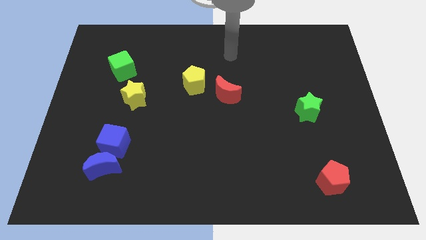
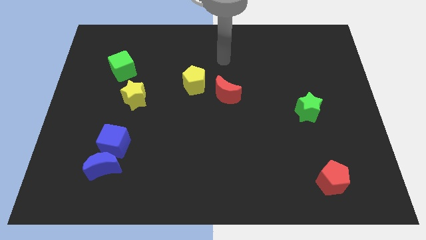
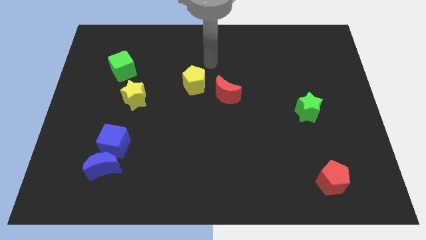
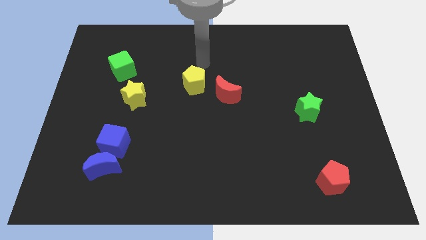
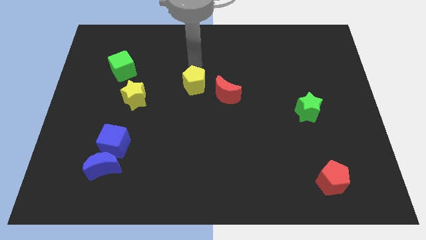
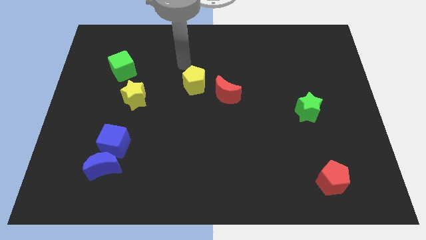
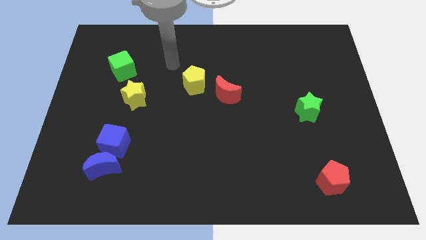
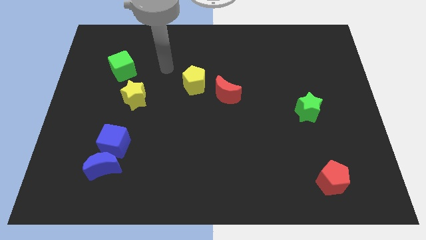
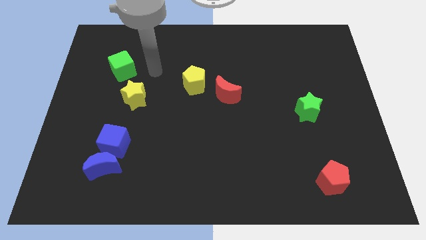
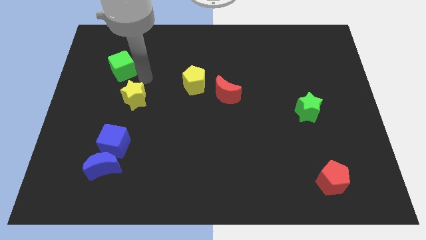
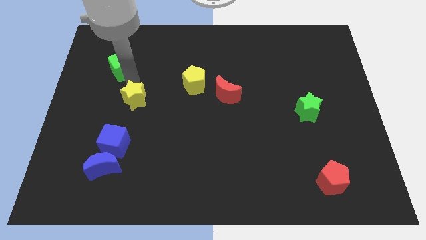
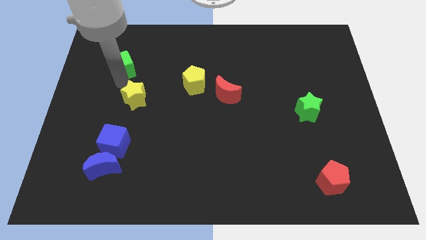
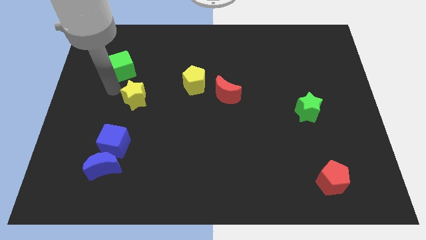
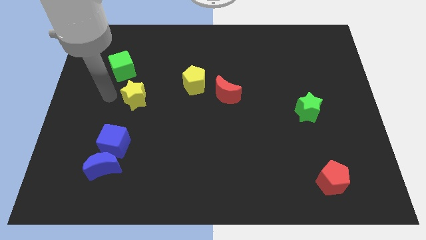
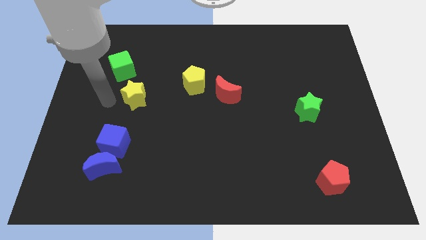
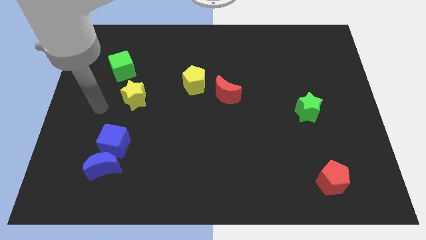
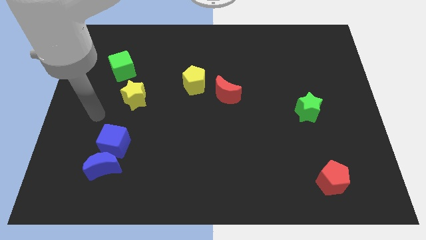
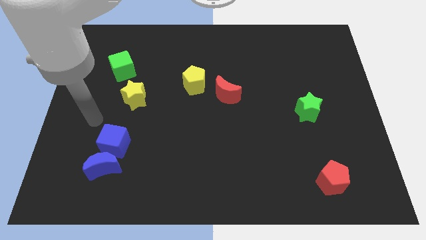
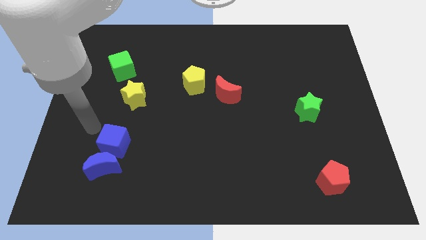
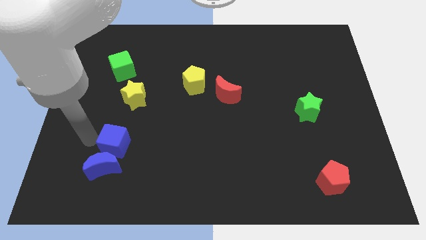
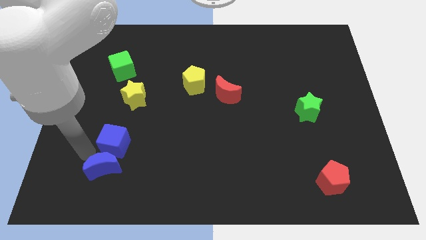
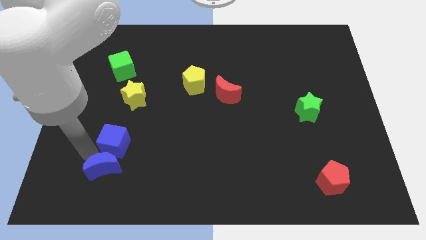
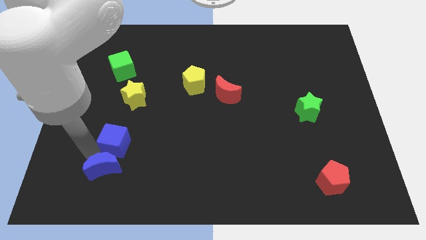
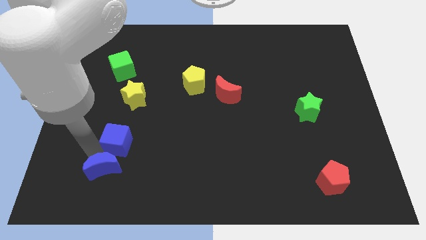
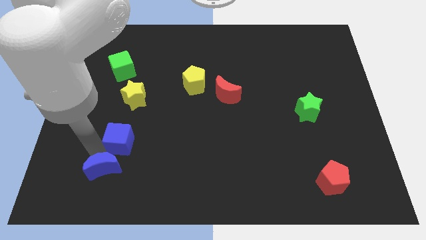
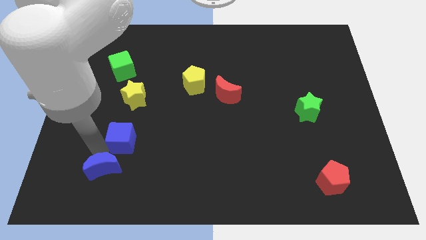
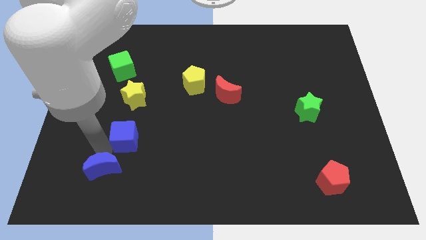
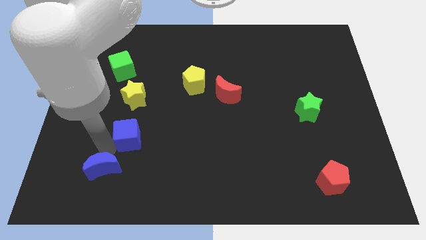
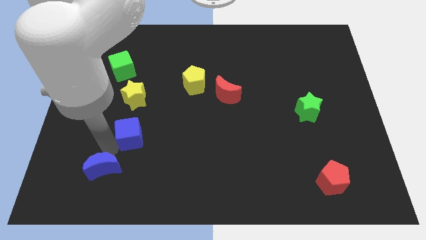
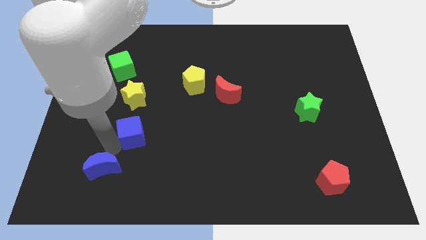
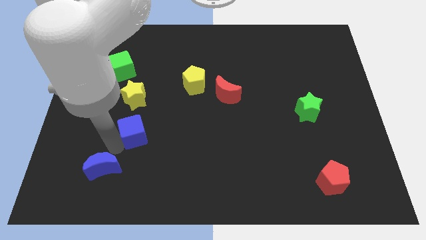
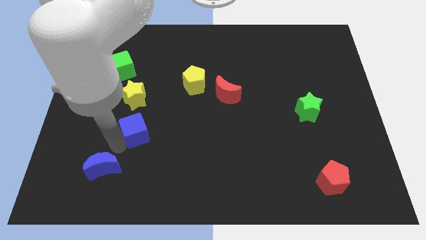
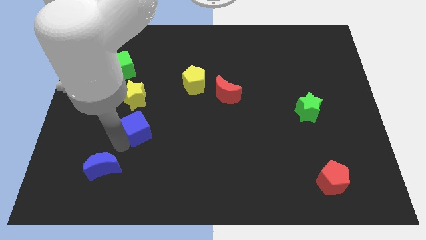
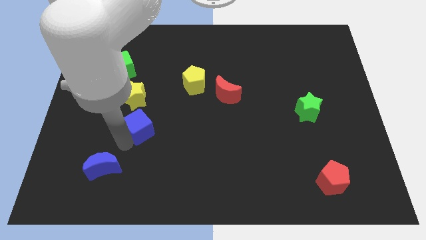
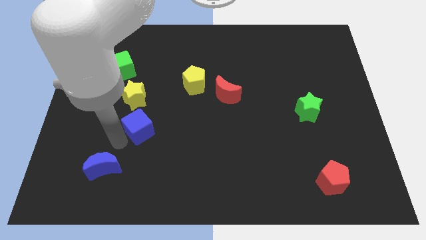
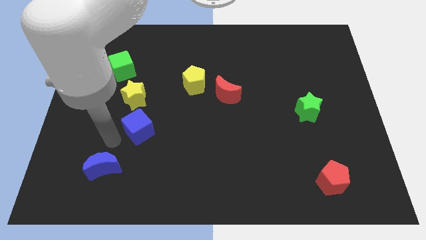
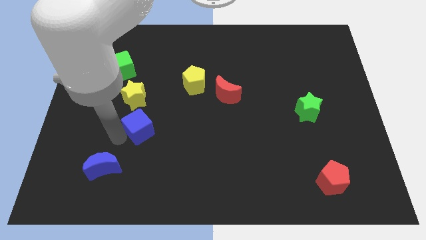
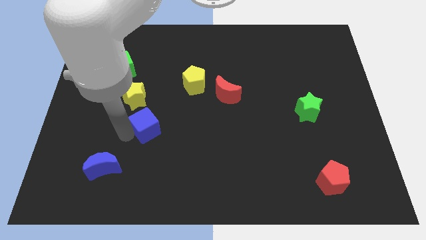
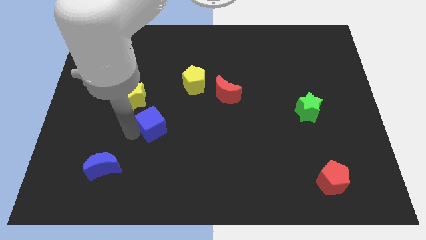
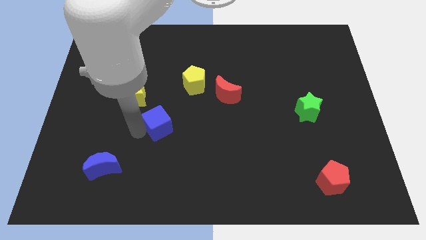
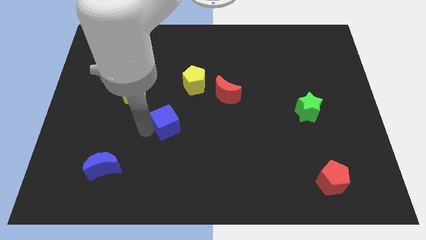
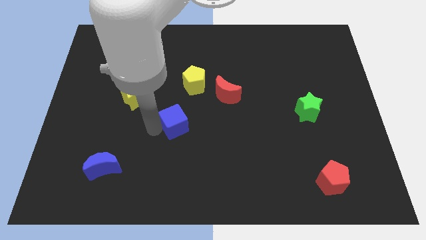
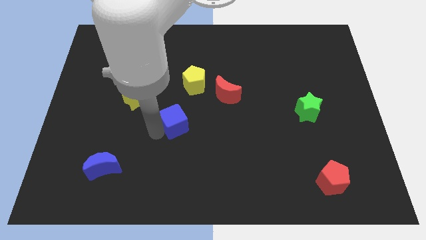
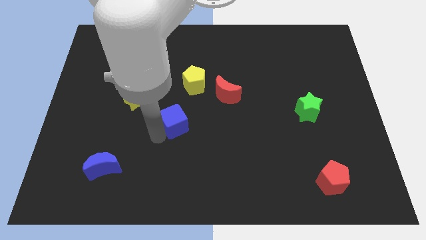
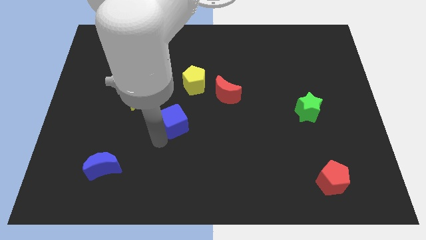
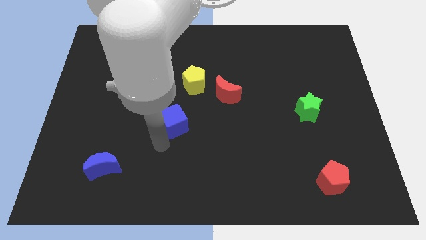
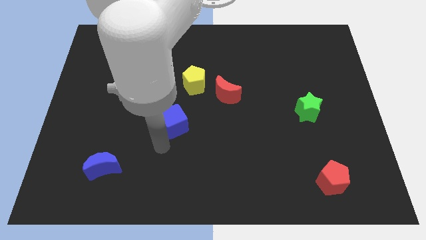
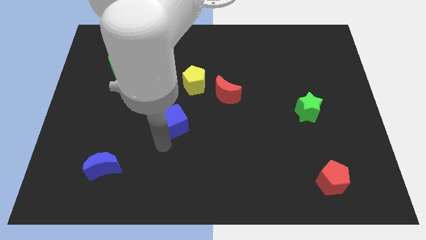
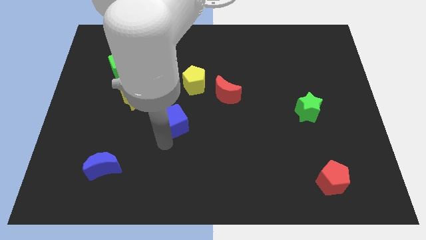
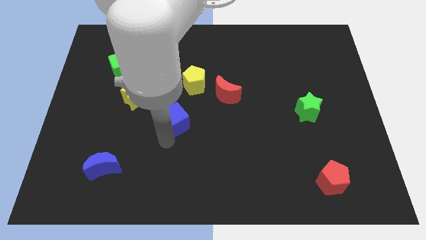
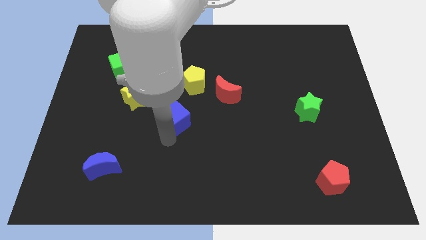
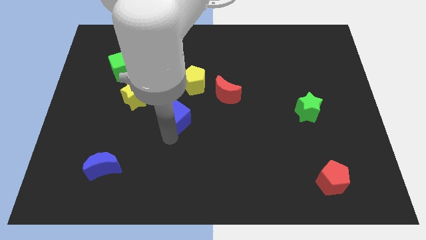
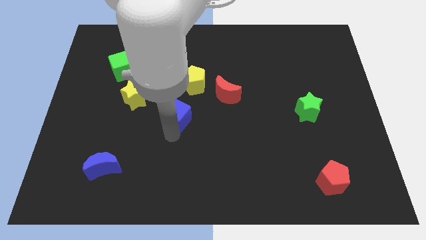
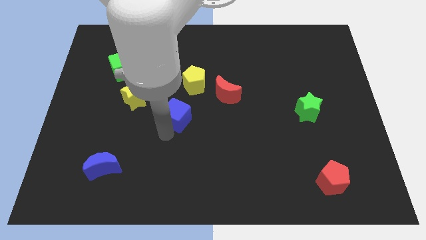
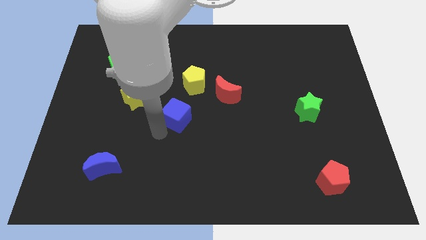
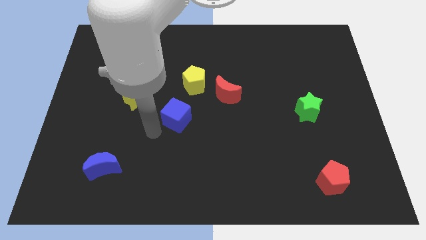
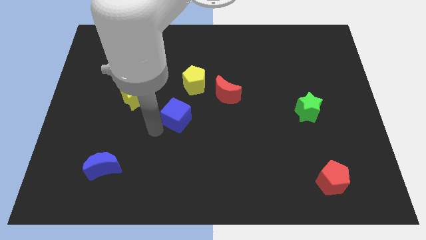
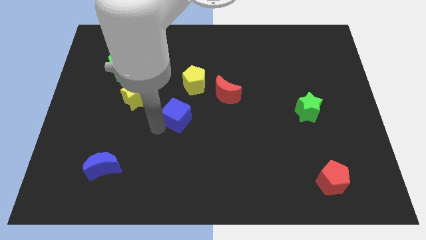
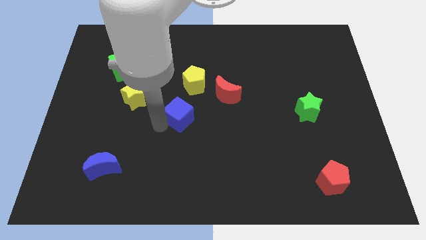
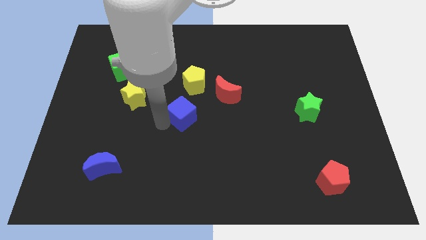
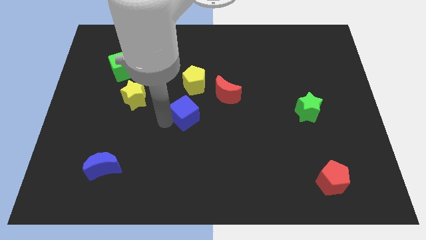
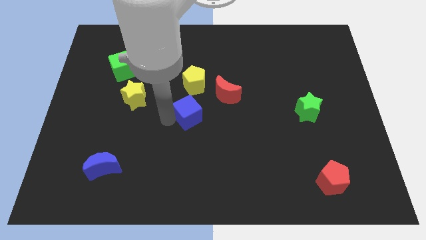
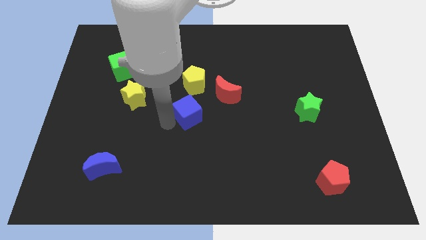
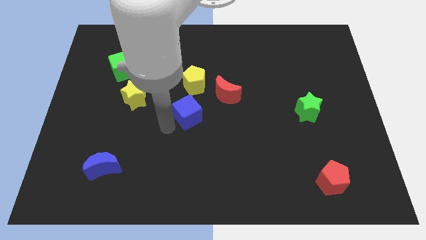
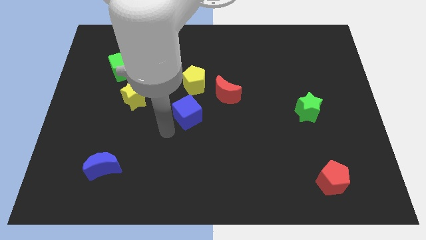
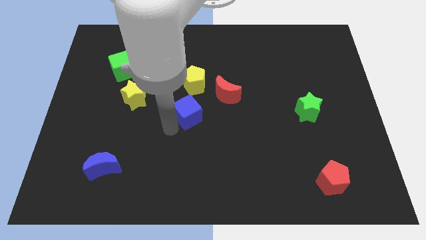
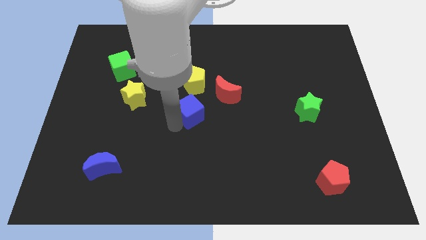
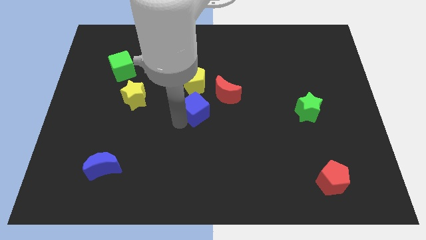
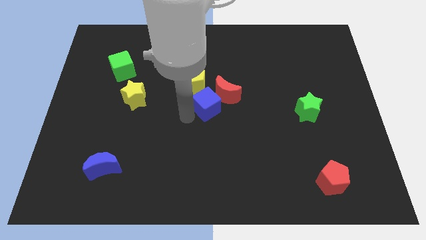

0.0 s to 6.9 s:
slide the blue cube next to the red moon
